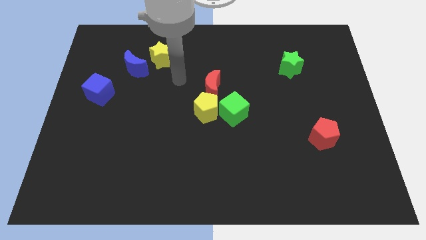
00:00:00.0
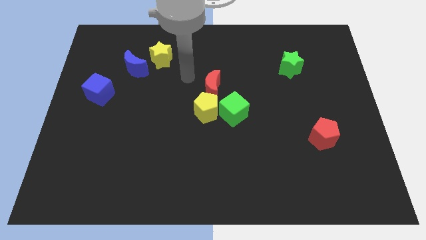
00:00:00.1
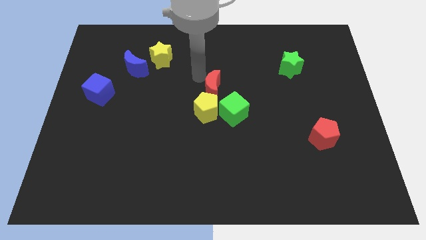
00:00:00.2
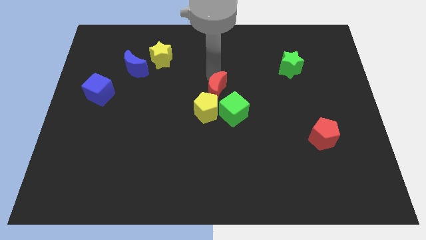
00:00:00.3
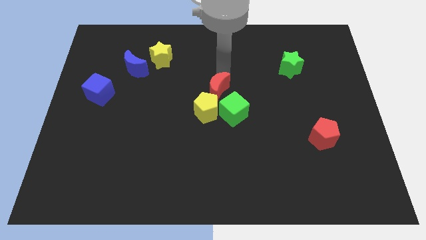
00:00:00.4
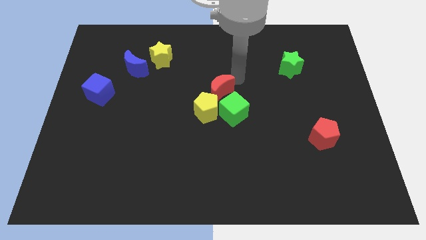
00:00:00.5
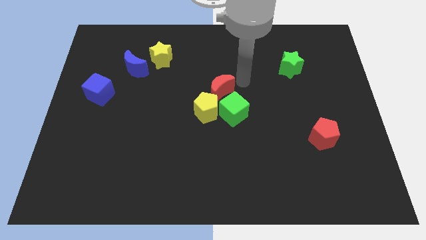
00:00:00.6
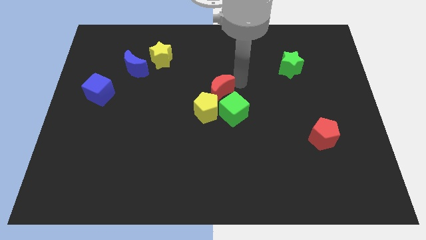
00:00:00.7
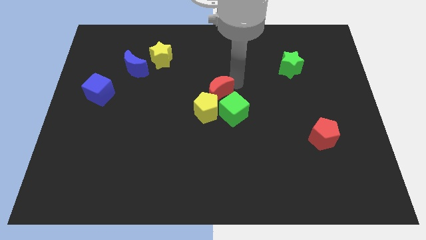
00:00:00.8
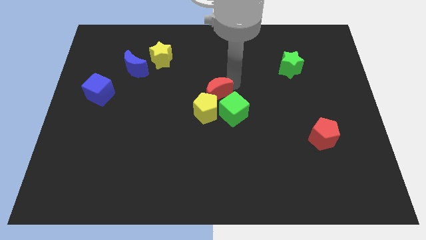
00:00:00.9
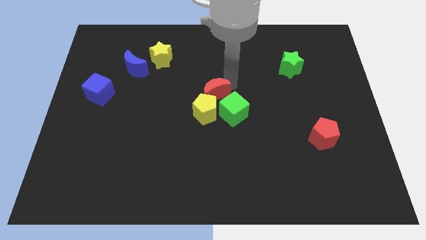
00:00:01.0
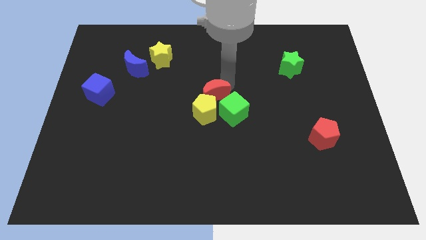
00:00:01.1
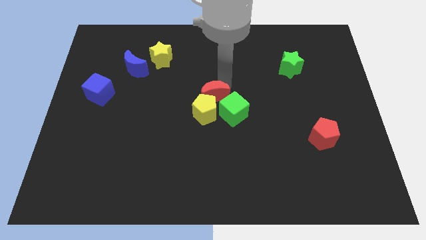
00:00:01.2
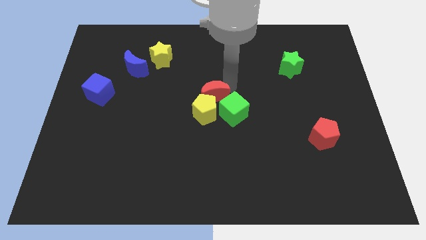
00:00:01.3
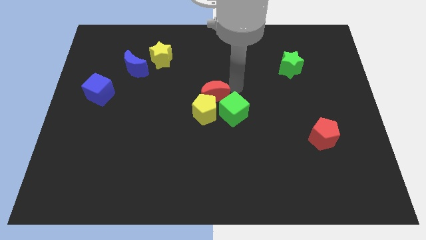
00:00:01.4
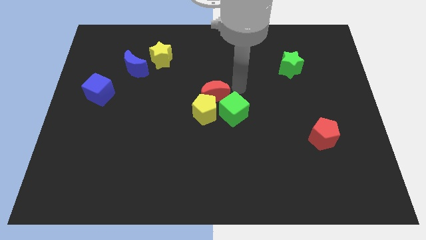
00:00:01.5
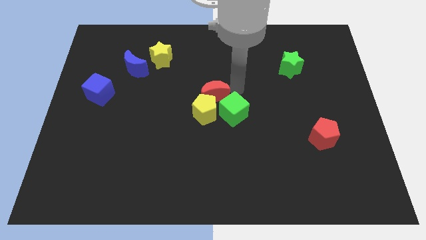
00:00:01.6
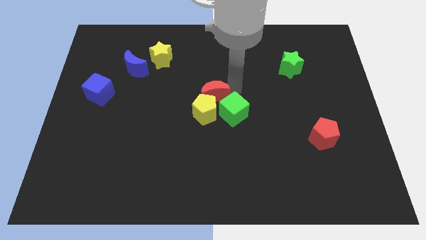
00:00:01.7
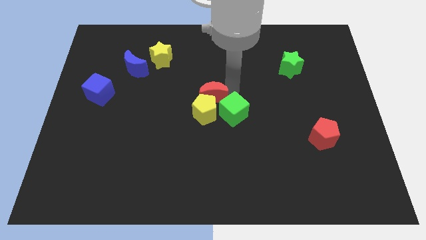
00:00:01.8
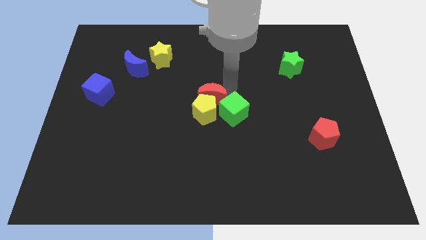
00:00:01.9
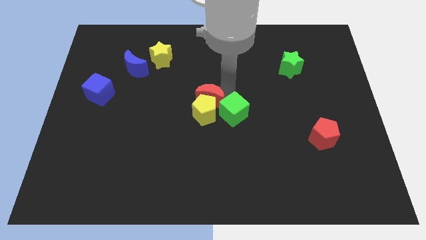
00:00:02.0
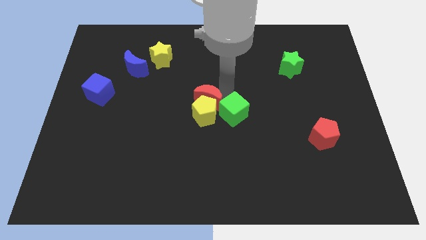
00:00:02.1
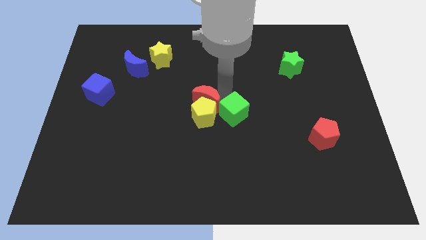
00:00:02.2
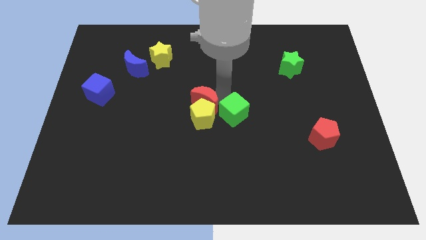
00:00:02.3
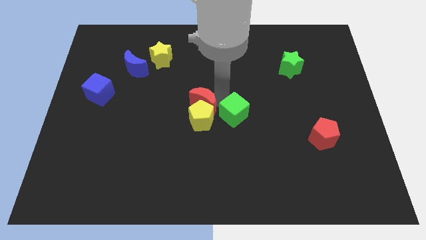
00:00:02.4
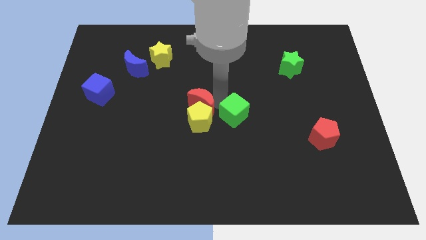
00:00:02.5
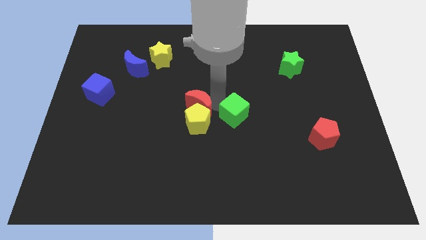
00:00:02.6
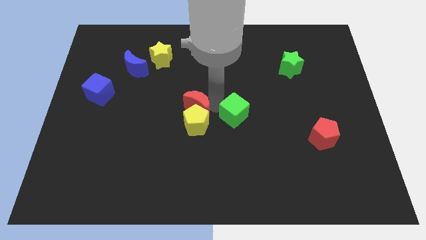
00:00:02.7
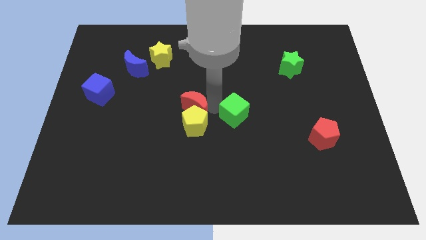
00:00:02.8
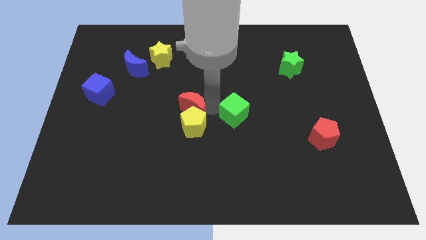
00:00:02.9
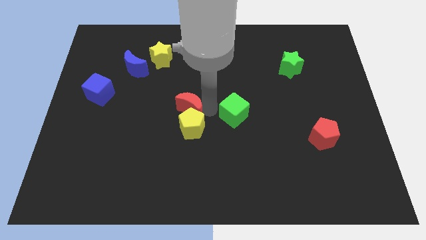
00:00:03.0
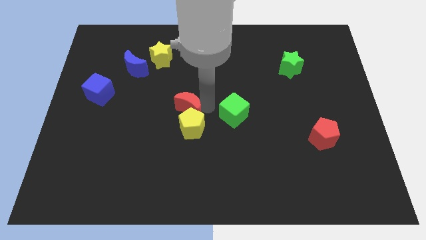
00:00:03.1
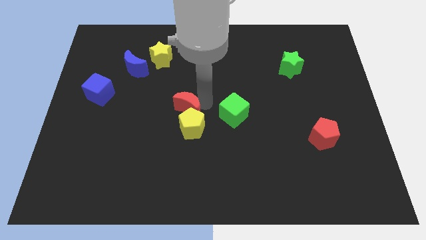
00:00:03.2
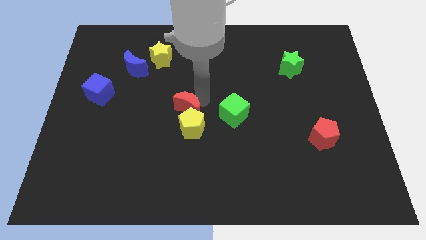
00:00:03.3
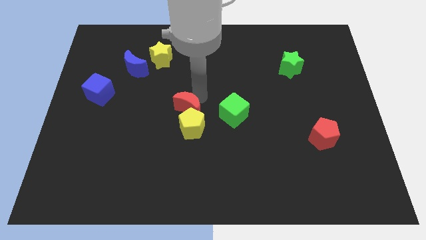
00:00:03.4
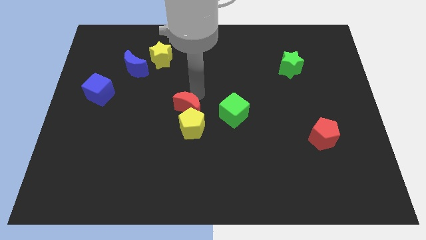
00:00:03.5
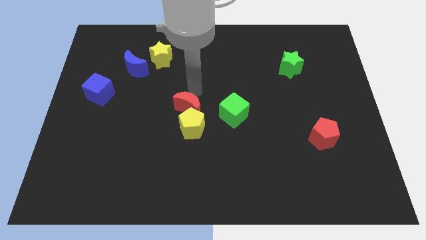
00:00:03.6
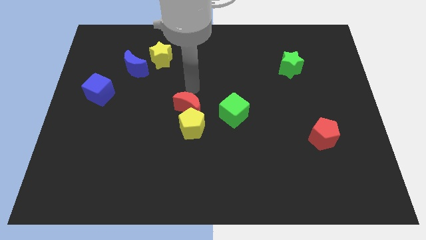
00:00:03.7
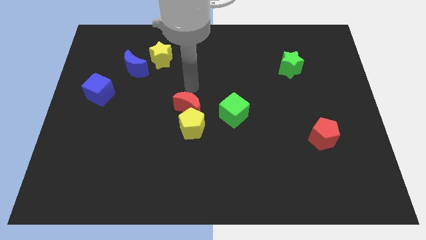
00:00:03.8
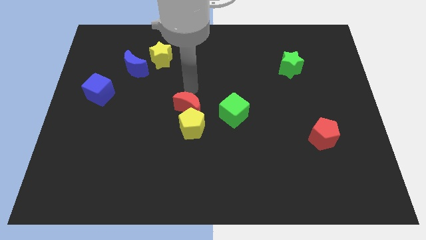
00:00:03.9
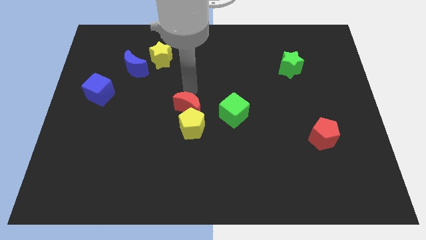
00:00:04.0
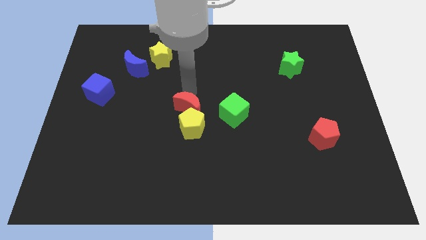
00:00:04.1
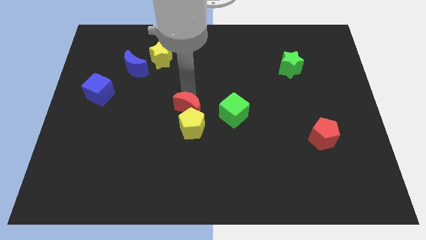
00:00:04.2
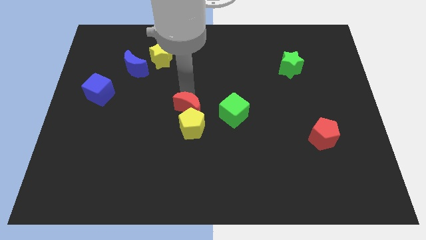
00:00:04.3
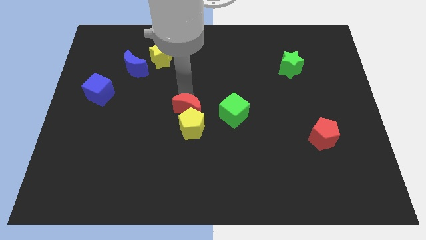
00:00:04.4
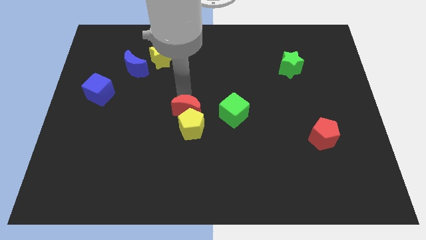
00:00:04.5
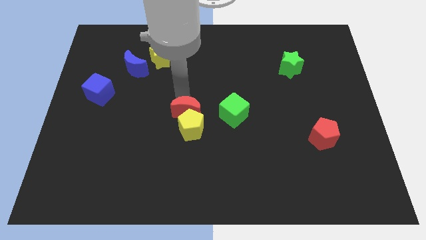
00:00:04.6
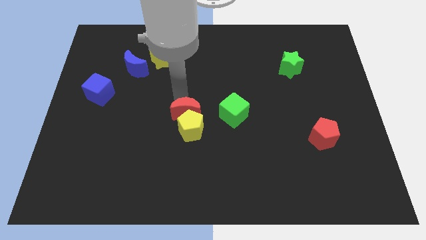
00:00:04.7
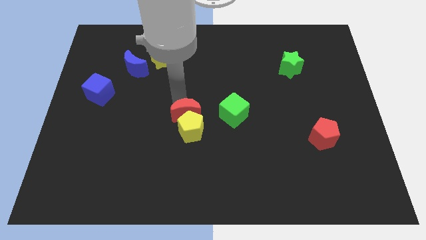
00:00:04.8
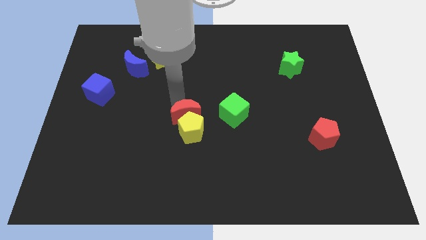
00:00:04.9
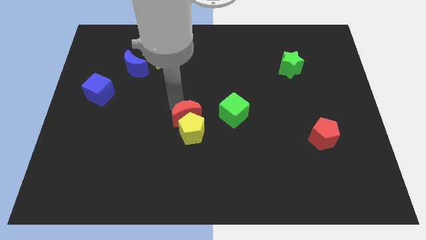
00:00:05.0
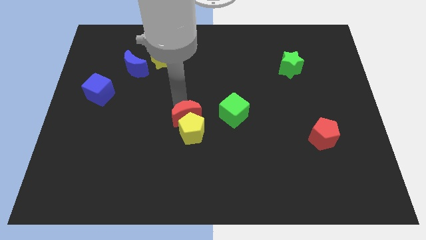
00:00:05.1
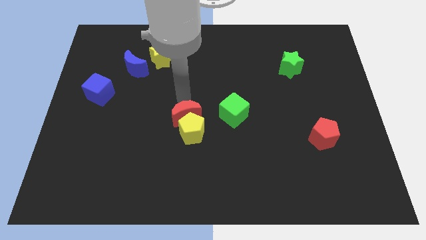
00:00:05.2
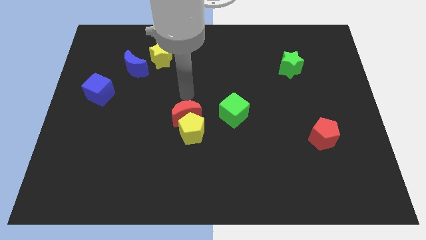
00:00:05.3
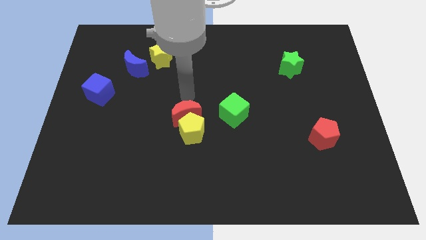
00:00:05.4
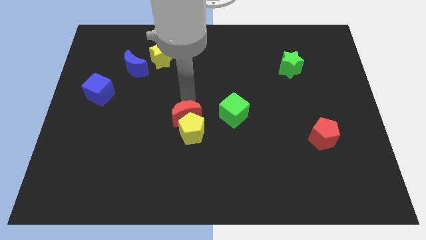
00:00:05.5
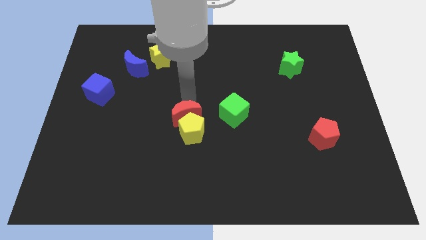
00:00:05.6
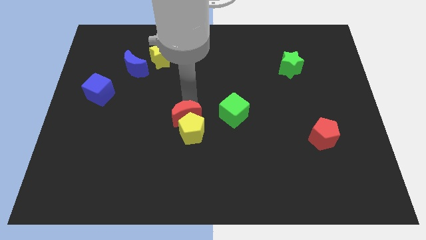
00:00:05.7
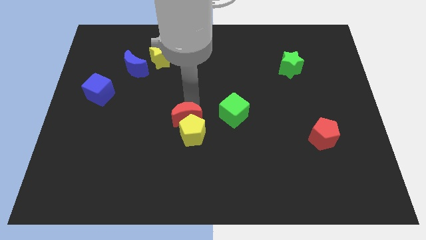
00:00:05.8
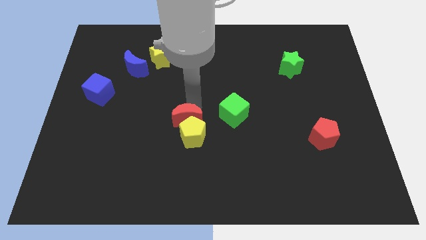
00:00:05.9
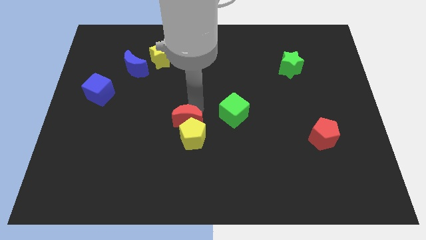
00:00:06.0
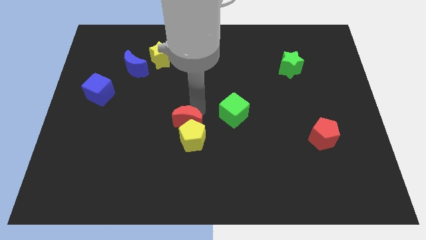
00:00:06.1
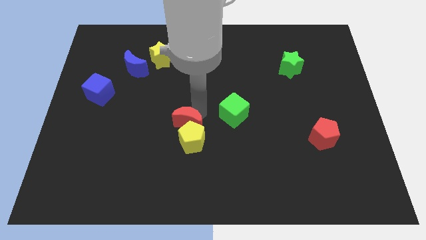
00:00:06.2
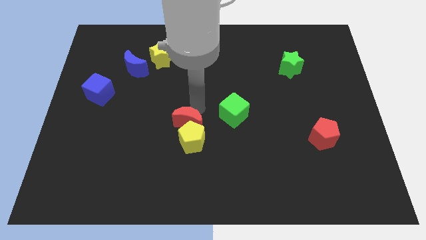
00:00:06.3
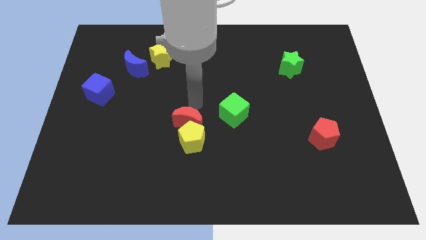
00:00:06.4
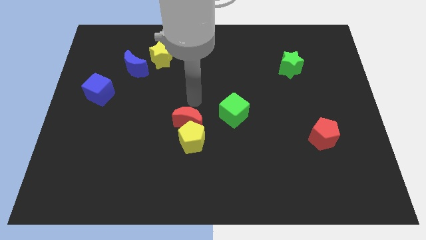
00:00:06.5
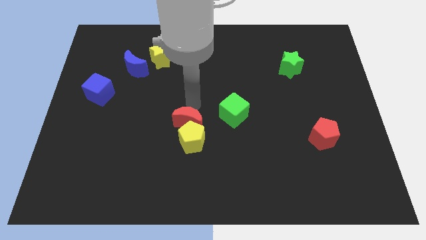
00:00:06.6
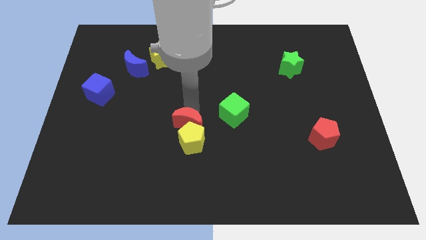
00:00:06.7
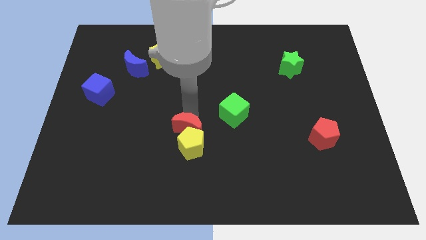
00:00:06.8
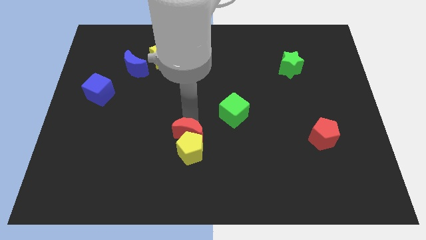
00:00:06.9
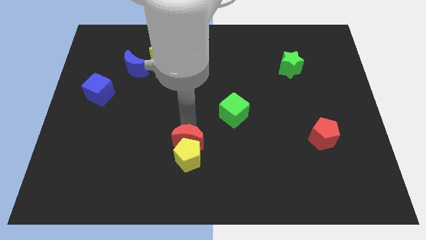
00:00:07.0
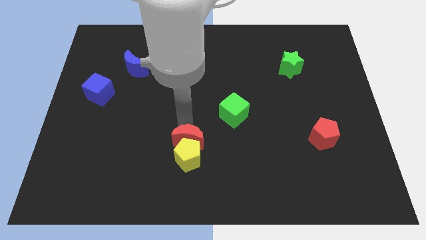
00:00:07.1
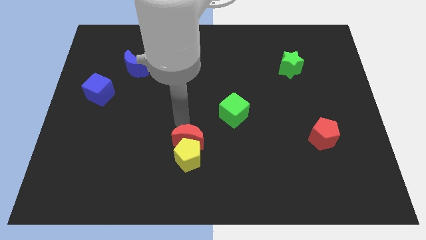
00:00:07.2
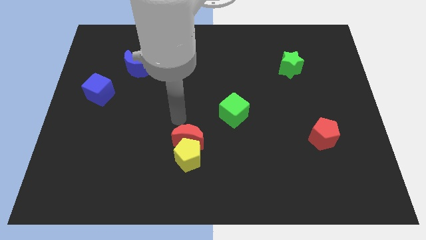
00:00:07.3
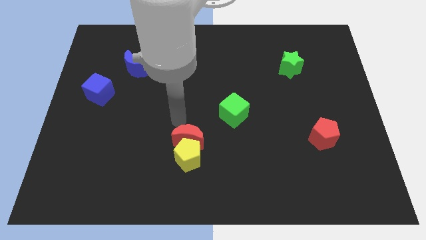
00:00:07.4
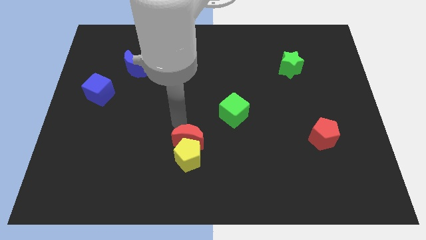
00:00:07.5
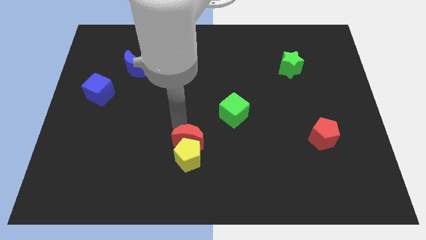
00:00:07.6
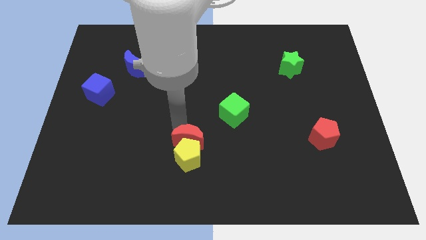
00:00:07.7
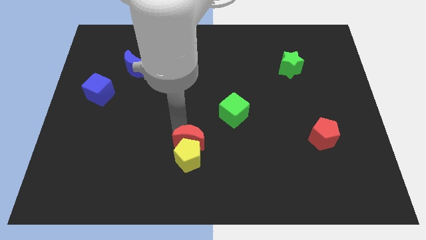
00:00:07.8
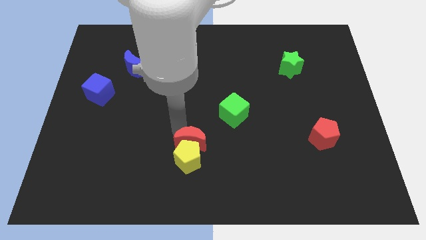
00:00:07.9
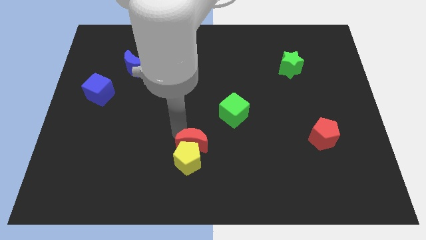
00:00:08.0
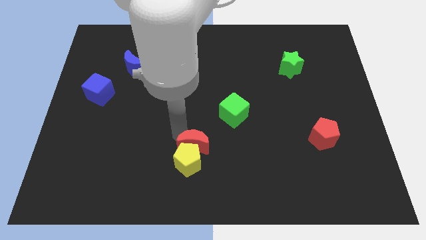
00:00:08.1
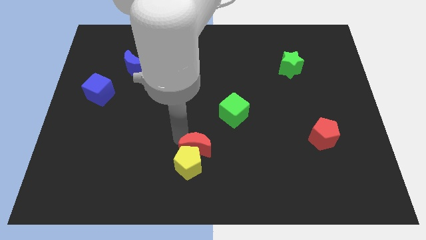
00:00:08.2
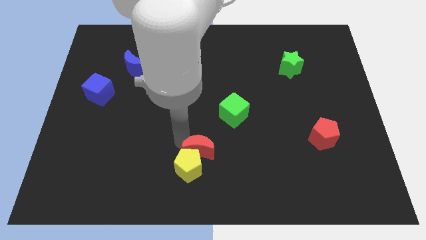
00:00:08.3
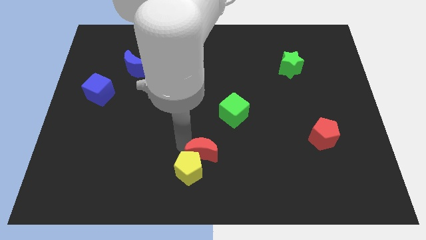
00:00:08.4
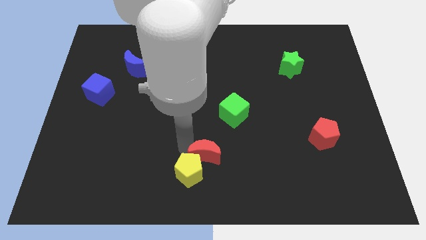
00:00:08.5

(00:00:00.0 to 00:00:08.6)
put the red moon to the bottom side
